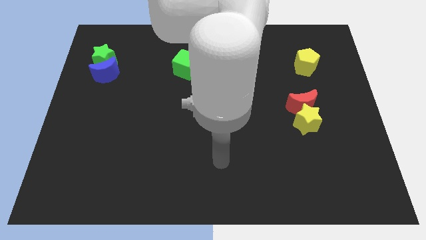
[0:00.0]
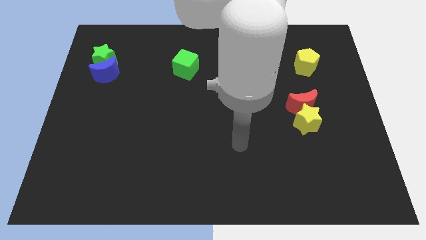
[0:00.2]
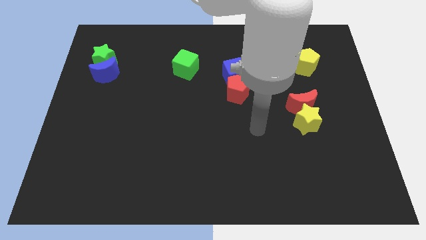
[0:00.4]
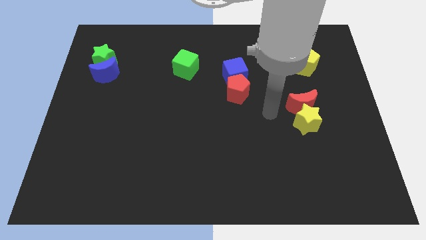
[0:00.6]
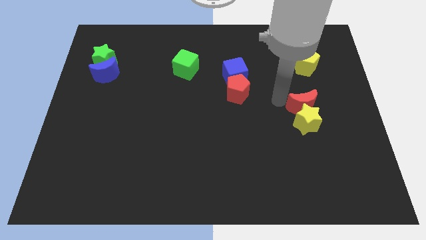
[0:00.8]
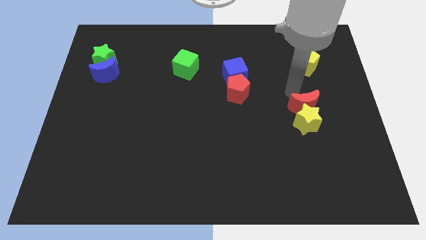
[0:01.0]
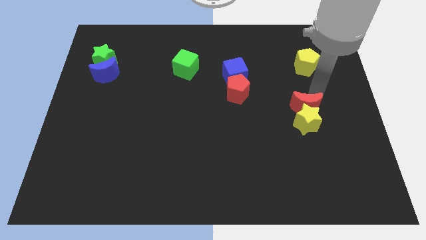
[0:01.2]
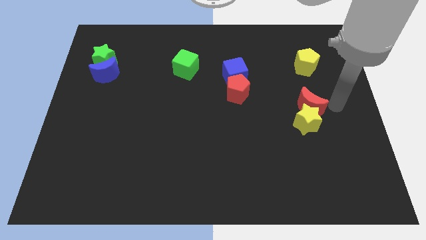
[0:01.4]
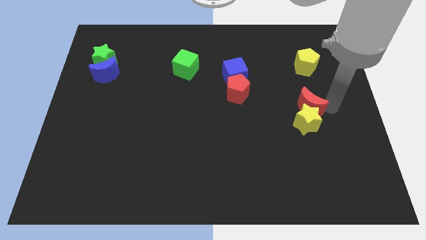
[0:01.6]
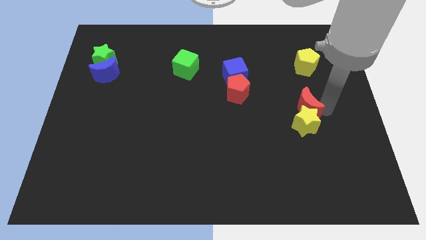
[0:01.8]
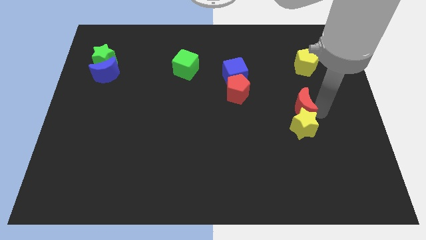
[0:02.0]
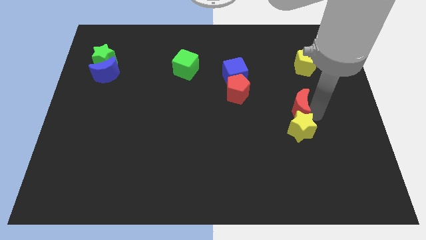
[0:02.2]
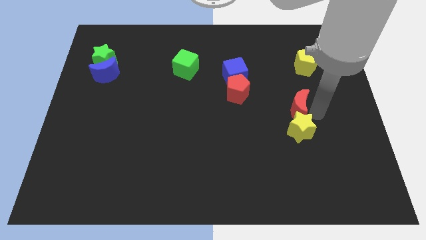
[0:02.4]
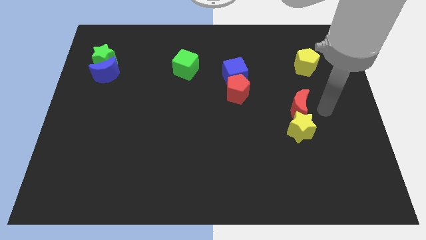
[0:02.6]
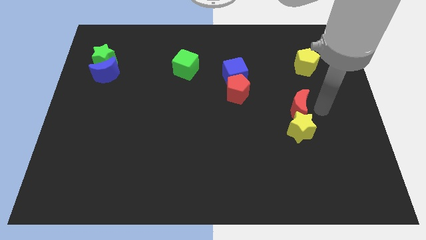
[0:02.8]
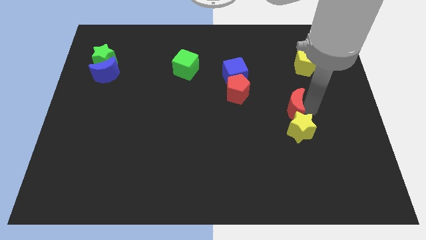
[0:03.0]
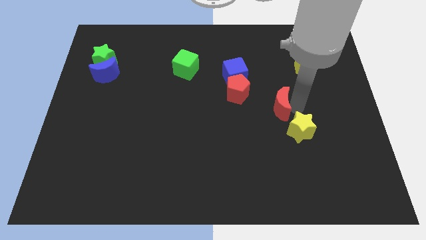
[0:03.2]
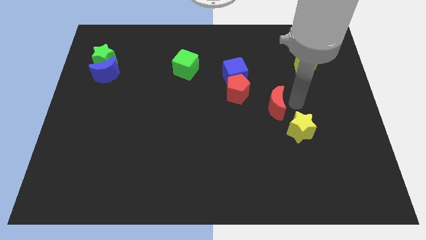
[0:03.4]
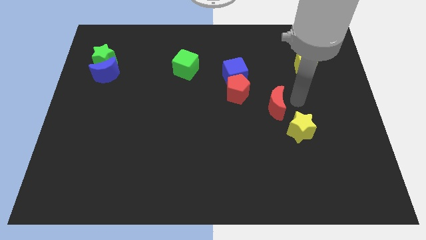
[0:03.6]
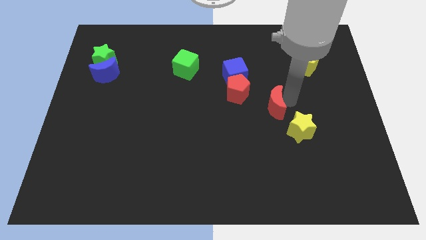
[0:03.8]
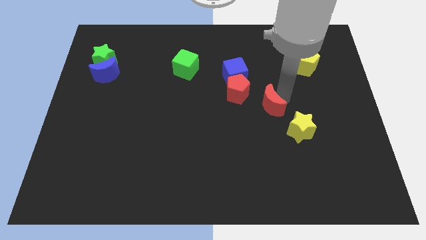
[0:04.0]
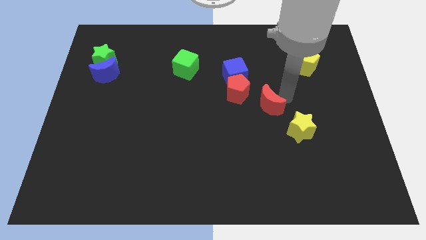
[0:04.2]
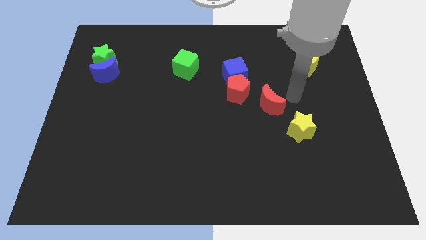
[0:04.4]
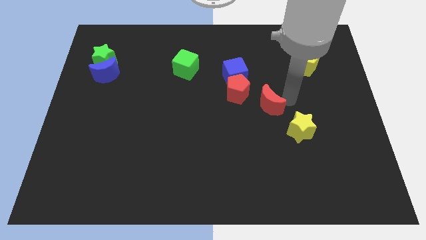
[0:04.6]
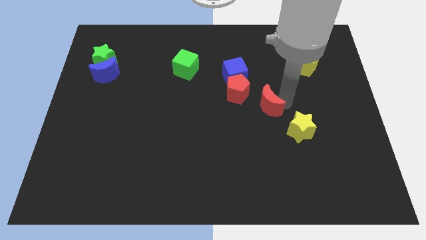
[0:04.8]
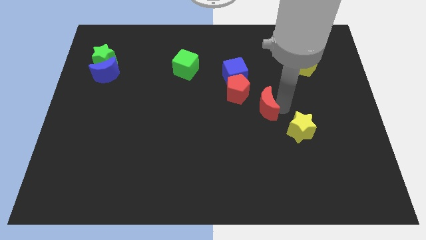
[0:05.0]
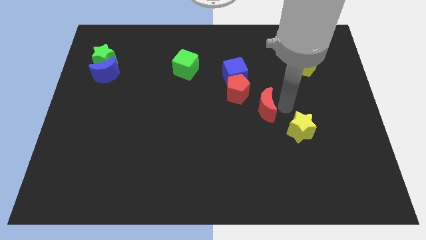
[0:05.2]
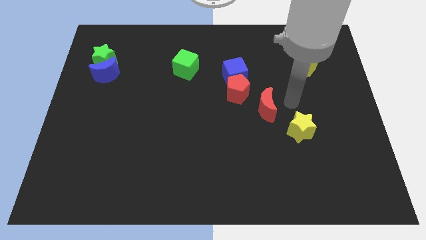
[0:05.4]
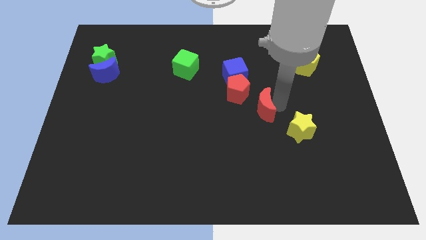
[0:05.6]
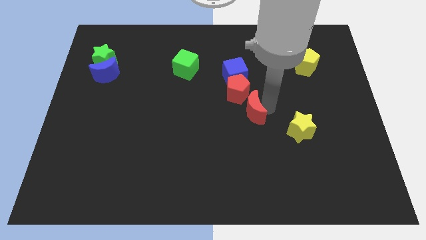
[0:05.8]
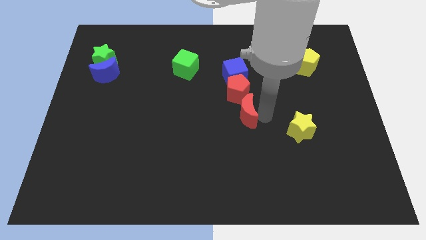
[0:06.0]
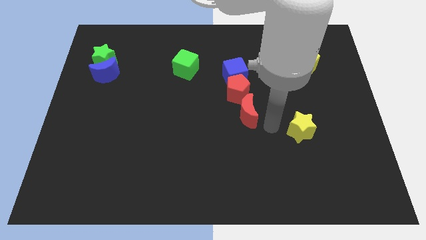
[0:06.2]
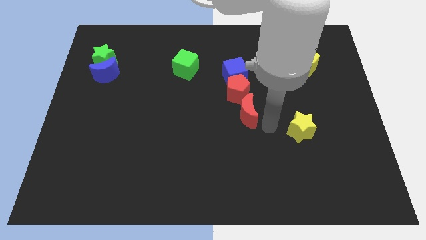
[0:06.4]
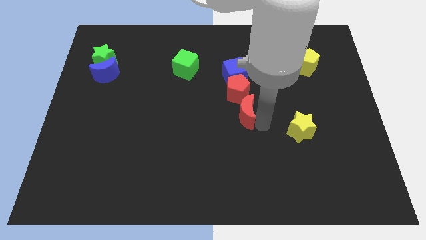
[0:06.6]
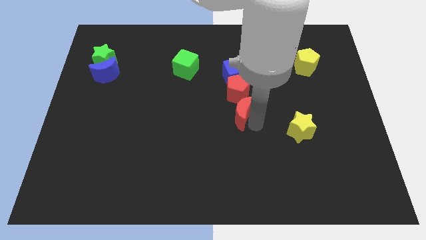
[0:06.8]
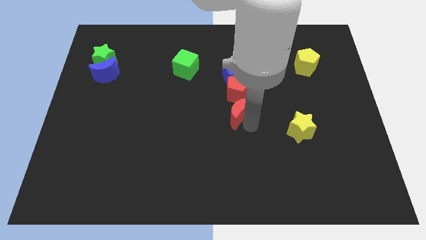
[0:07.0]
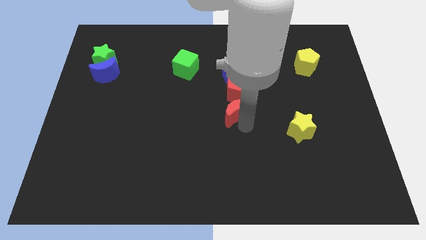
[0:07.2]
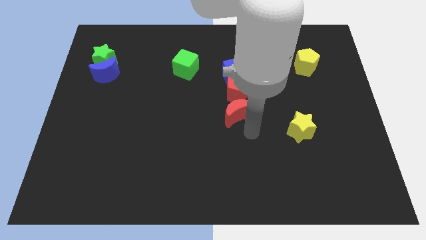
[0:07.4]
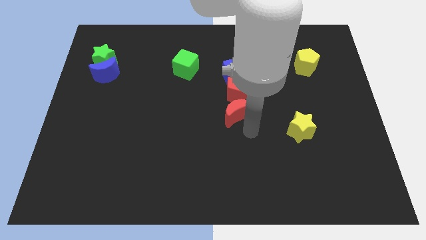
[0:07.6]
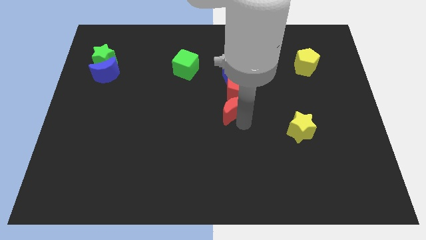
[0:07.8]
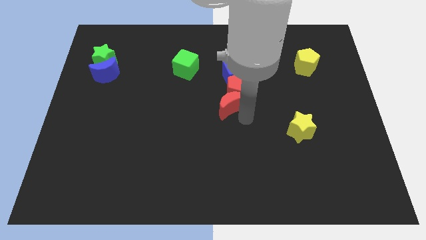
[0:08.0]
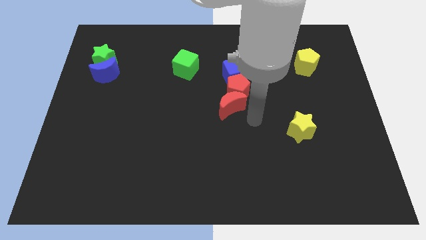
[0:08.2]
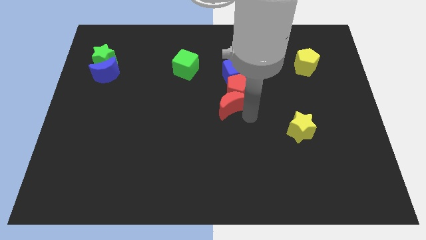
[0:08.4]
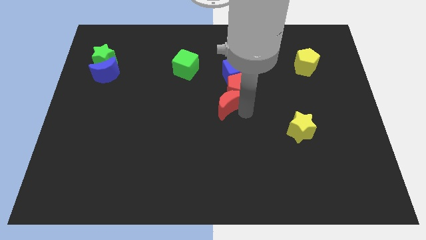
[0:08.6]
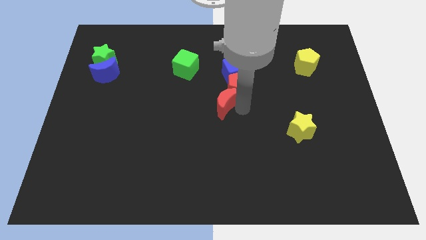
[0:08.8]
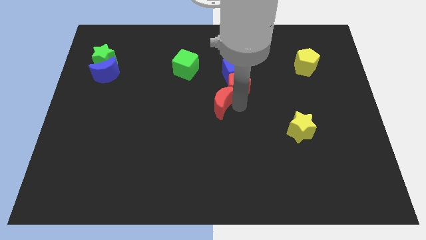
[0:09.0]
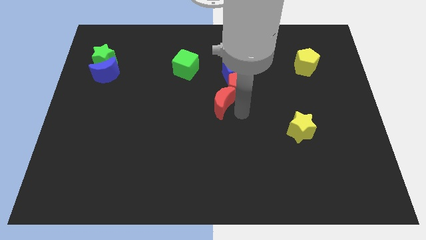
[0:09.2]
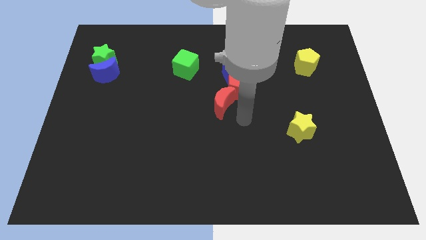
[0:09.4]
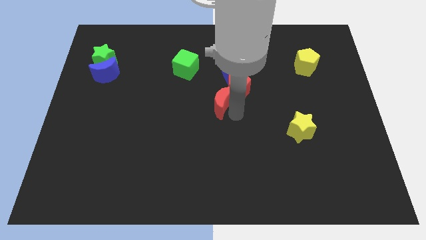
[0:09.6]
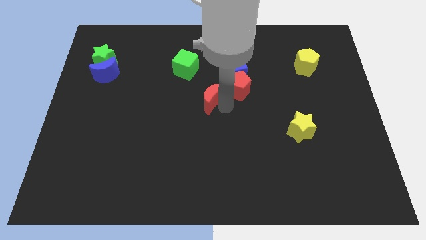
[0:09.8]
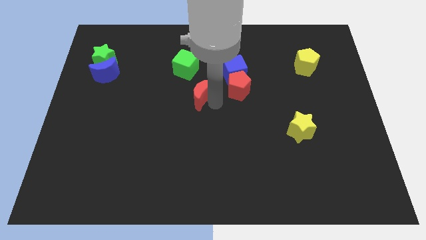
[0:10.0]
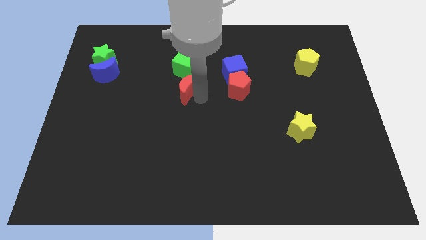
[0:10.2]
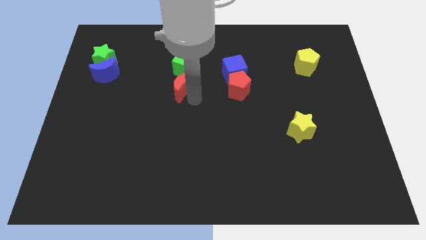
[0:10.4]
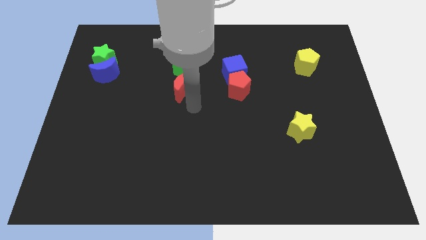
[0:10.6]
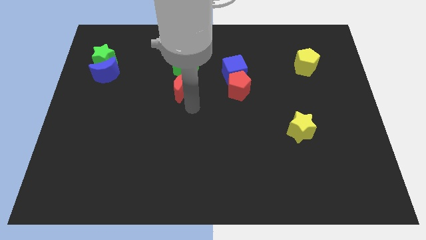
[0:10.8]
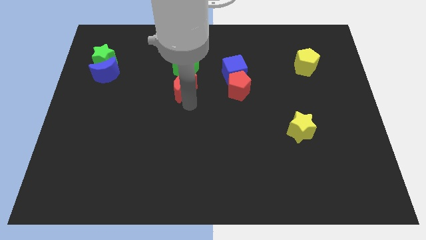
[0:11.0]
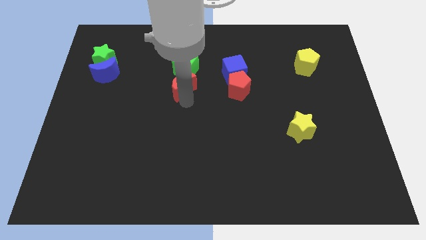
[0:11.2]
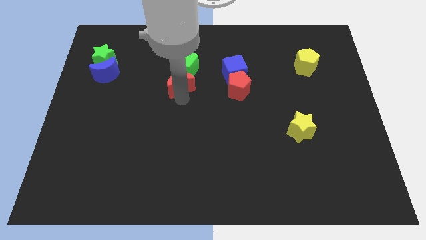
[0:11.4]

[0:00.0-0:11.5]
put the red moon to the left of the blue cube
